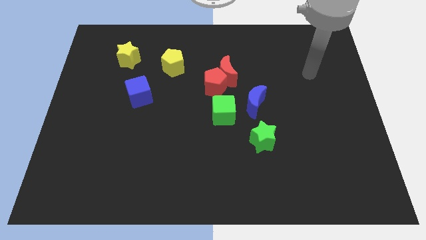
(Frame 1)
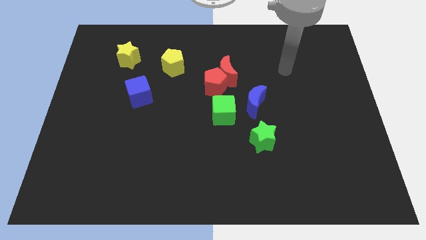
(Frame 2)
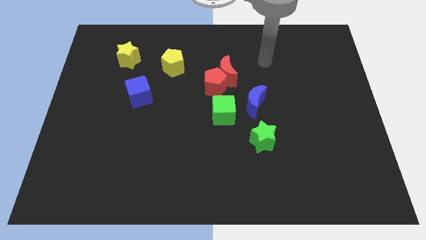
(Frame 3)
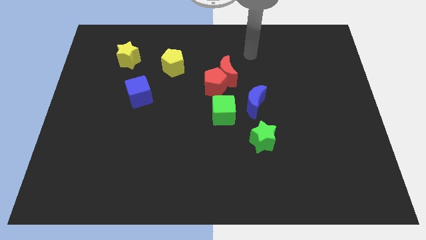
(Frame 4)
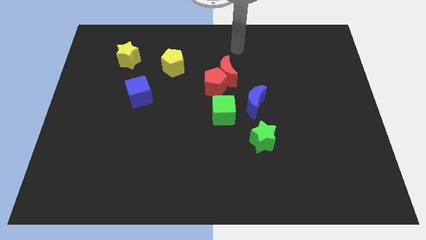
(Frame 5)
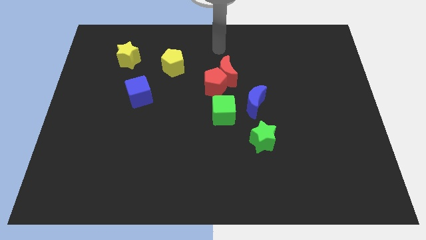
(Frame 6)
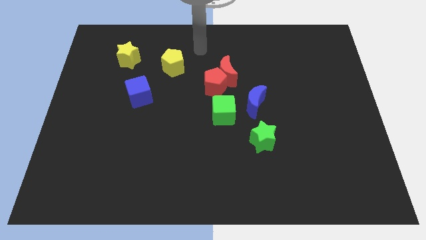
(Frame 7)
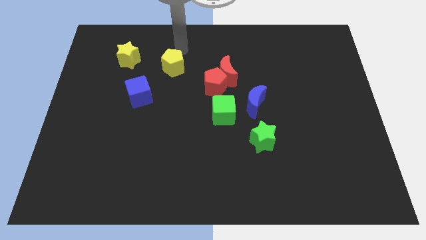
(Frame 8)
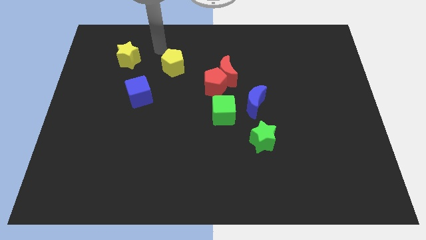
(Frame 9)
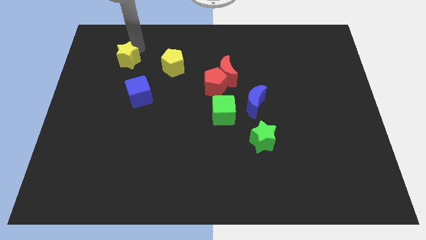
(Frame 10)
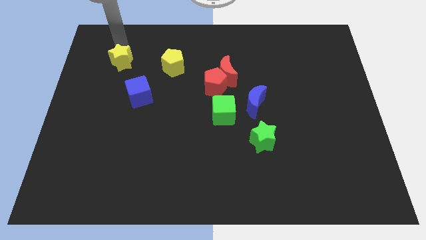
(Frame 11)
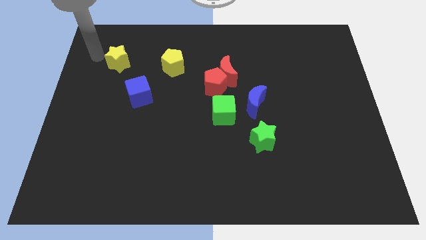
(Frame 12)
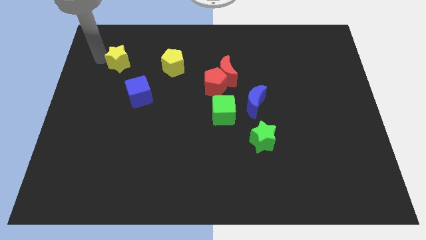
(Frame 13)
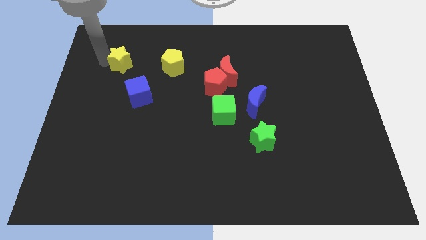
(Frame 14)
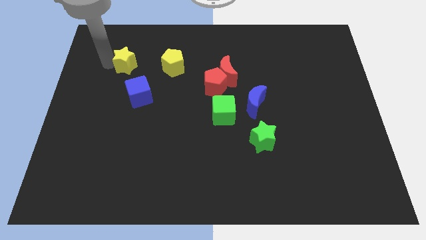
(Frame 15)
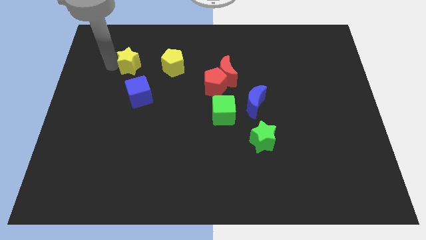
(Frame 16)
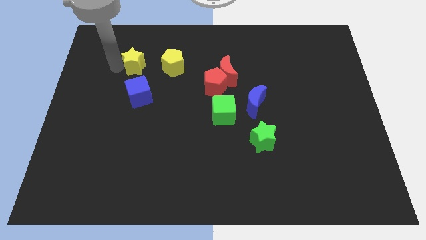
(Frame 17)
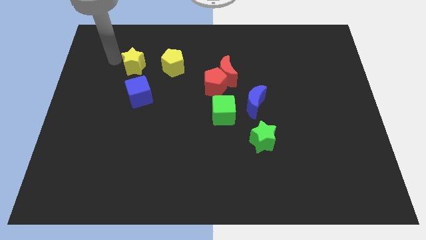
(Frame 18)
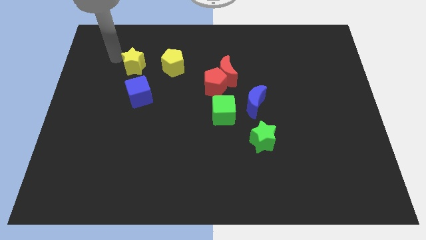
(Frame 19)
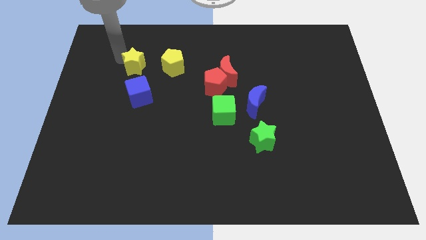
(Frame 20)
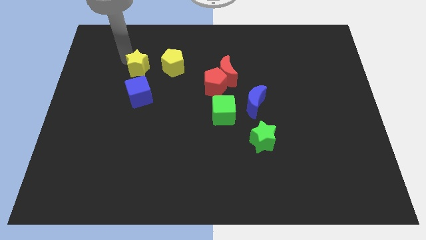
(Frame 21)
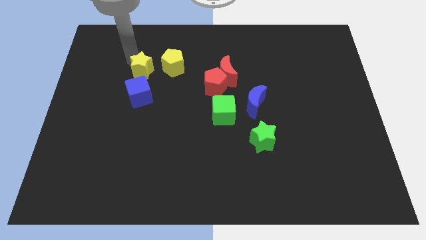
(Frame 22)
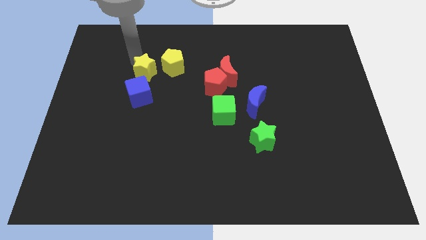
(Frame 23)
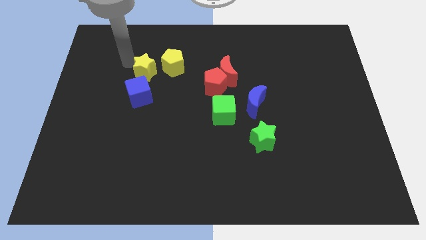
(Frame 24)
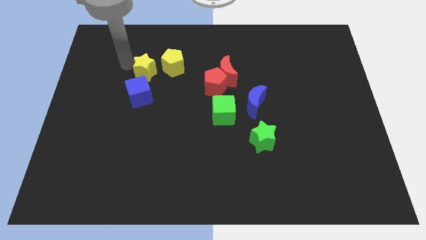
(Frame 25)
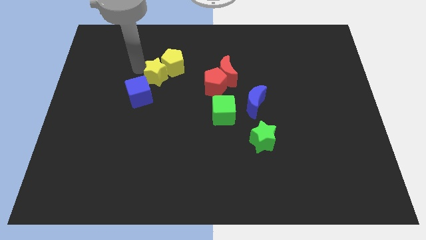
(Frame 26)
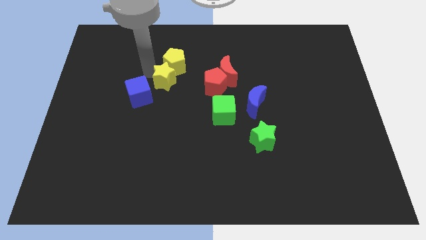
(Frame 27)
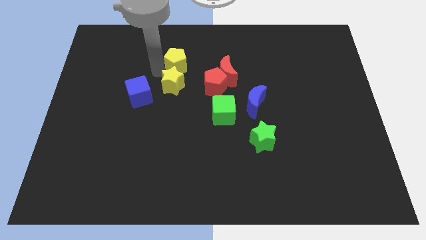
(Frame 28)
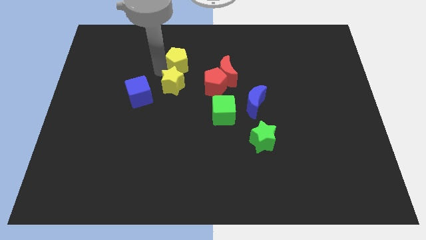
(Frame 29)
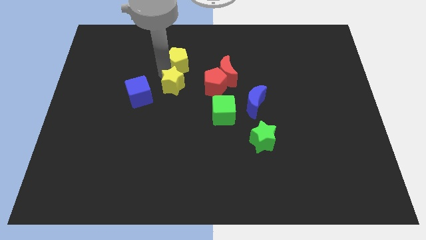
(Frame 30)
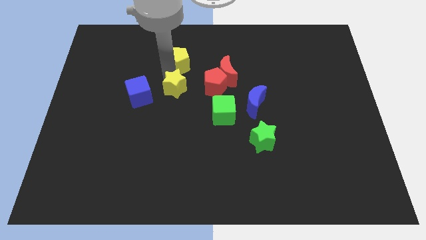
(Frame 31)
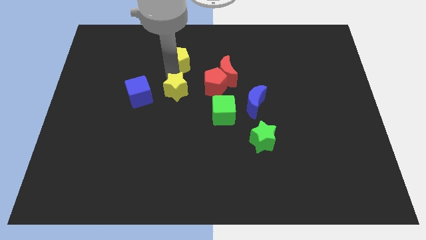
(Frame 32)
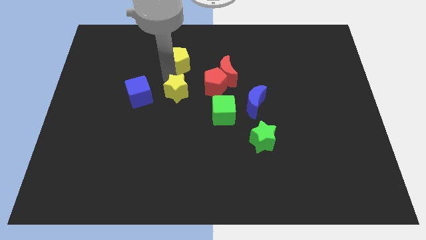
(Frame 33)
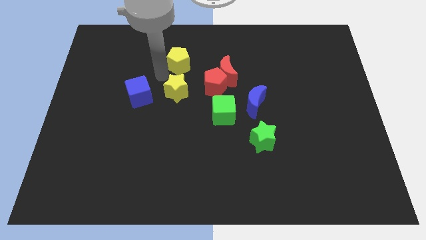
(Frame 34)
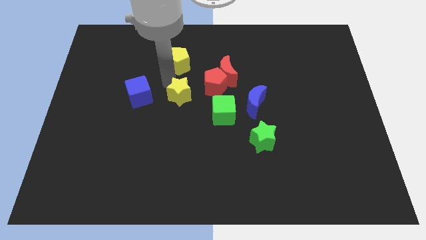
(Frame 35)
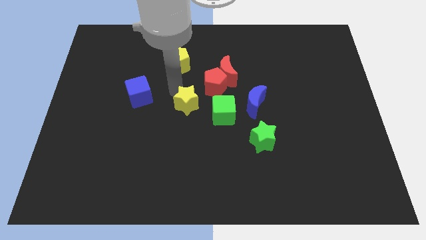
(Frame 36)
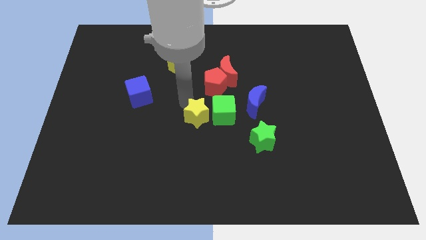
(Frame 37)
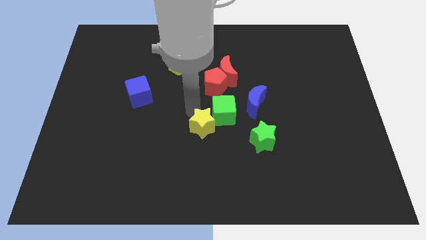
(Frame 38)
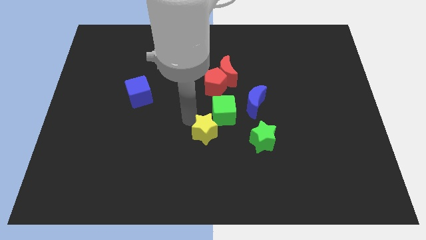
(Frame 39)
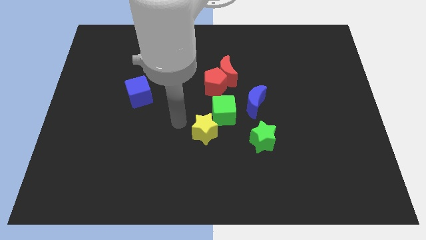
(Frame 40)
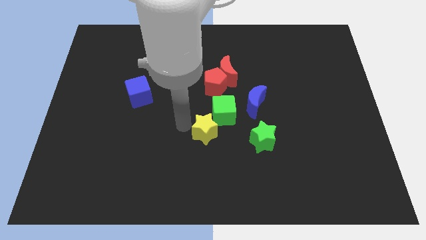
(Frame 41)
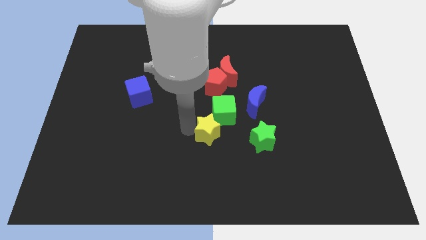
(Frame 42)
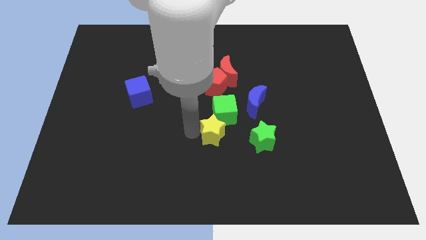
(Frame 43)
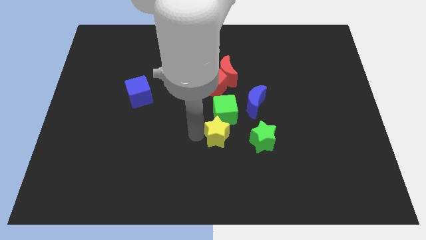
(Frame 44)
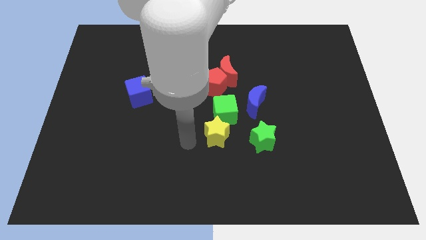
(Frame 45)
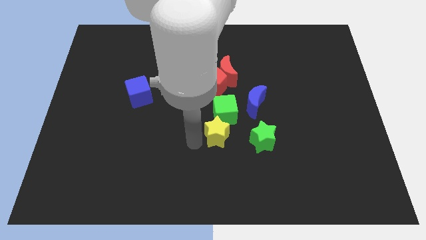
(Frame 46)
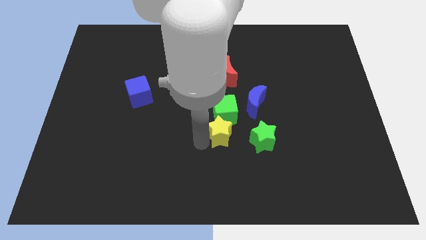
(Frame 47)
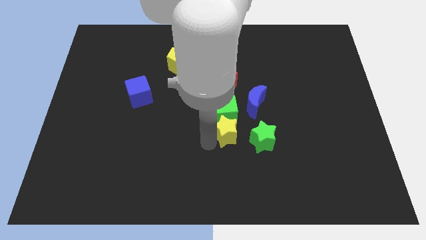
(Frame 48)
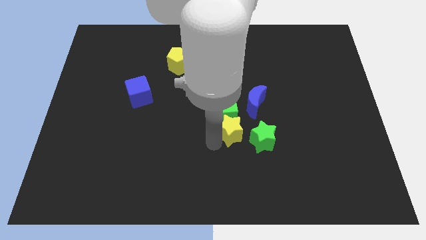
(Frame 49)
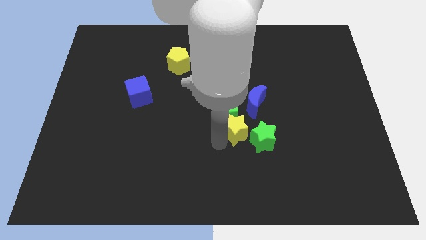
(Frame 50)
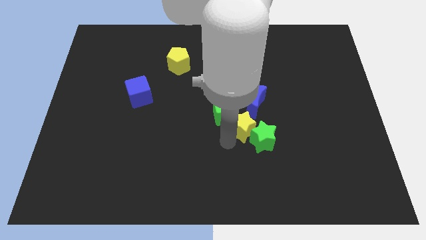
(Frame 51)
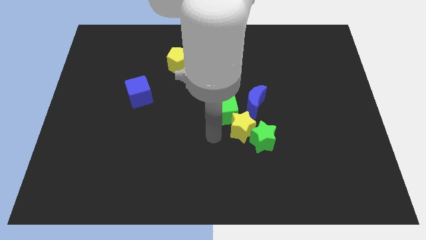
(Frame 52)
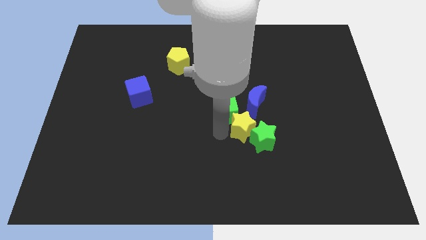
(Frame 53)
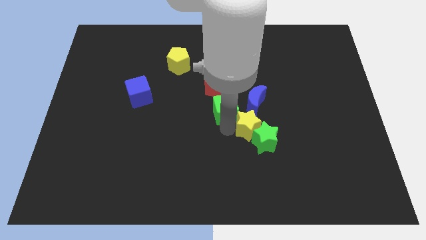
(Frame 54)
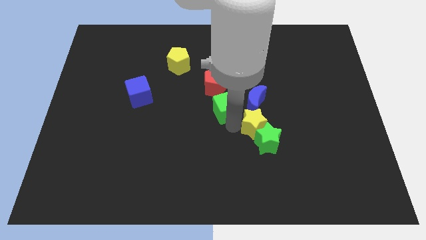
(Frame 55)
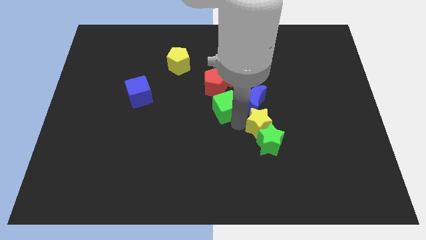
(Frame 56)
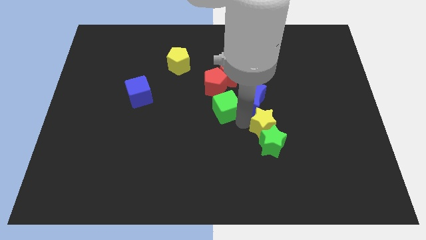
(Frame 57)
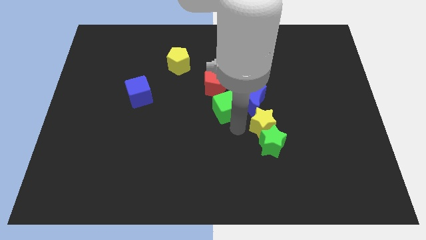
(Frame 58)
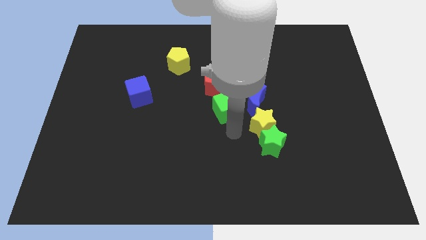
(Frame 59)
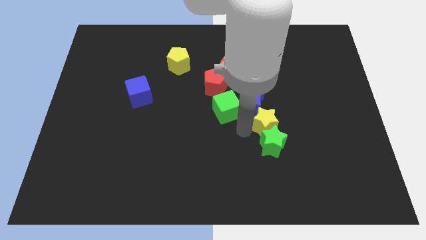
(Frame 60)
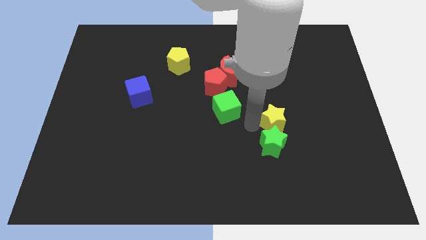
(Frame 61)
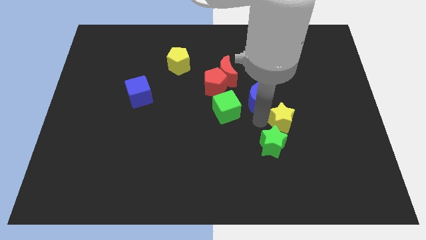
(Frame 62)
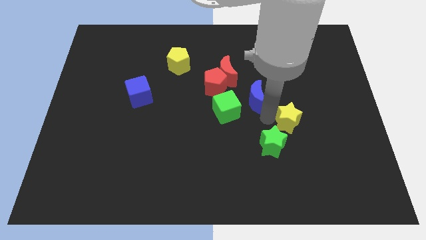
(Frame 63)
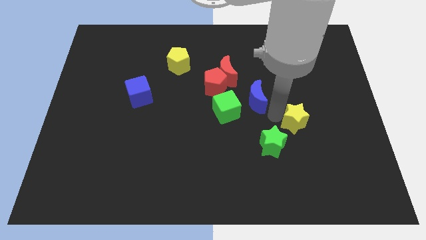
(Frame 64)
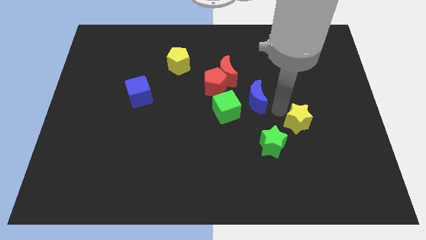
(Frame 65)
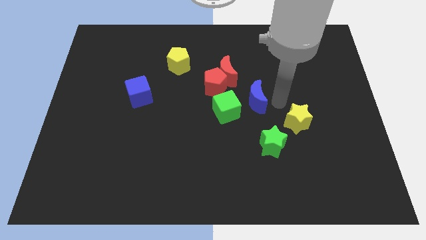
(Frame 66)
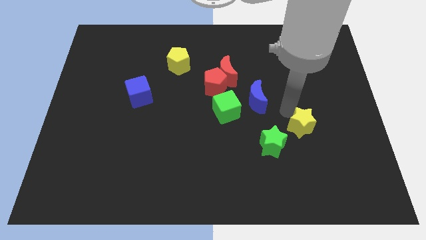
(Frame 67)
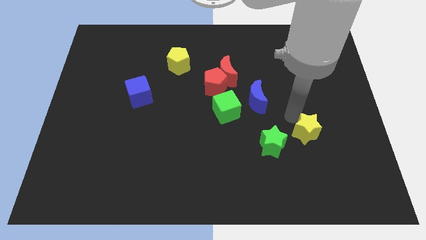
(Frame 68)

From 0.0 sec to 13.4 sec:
put the yellow star right of the green star
